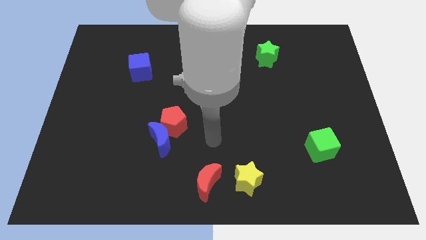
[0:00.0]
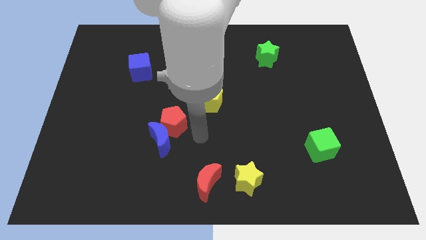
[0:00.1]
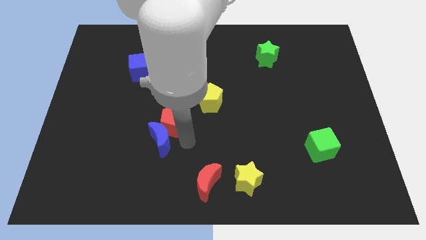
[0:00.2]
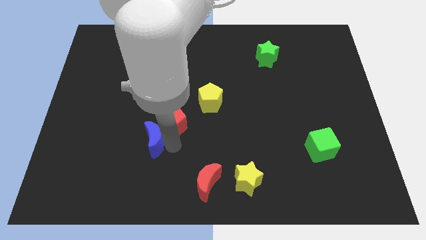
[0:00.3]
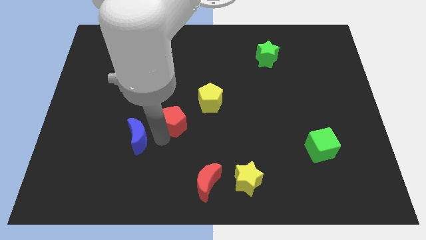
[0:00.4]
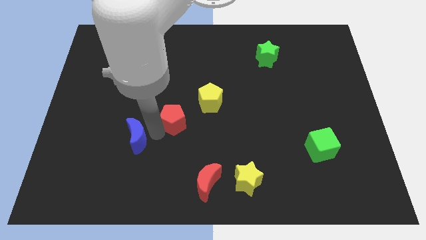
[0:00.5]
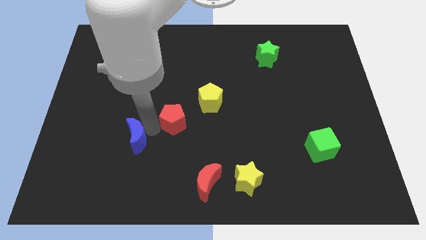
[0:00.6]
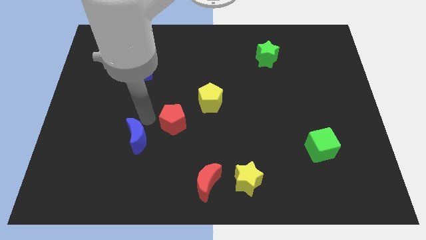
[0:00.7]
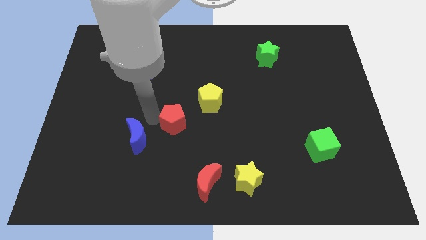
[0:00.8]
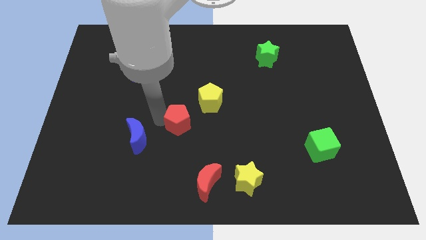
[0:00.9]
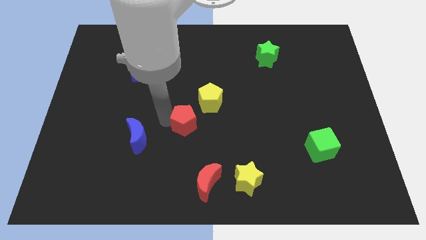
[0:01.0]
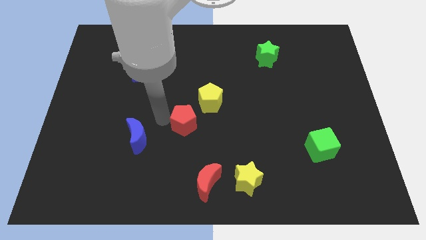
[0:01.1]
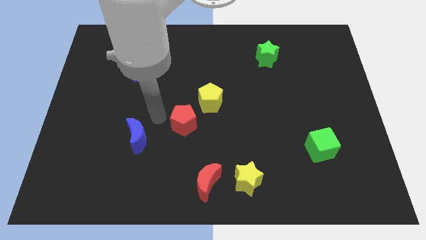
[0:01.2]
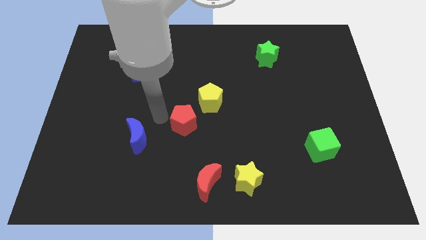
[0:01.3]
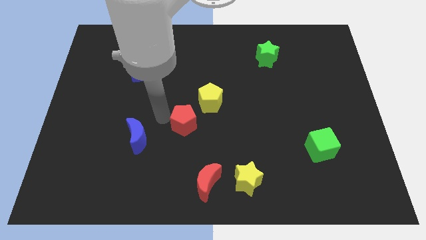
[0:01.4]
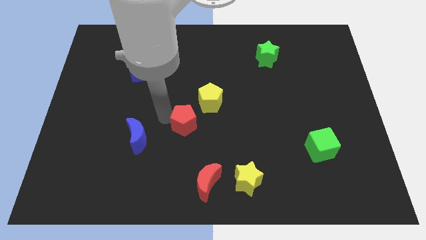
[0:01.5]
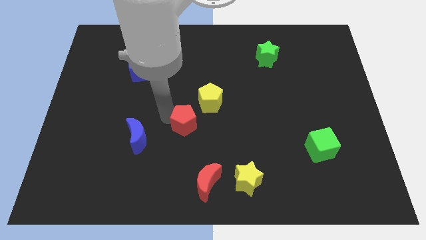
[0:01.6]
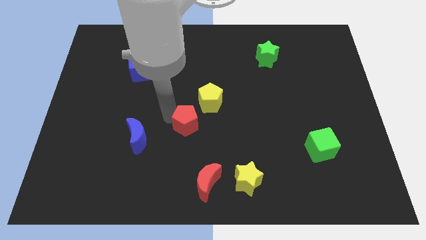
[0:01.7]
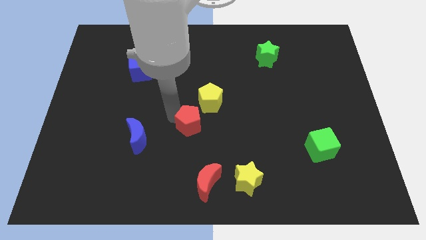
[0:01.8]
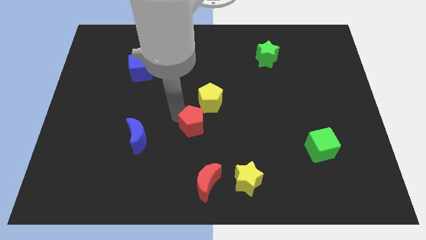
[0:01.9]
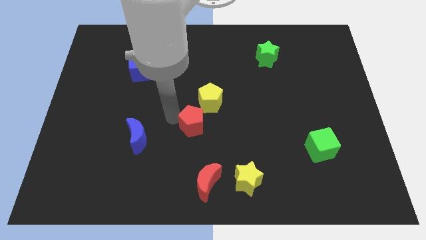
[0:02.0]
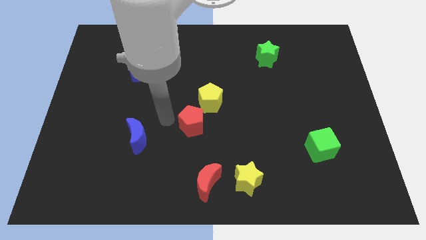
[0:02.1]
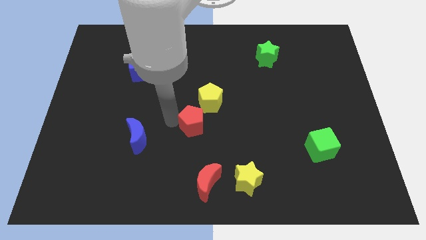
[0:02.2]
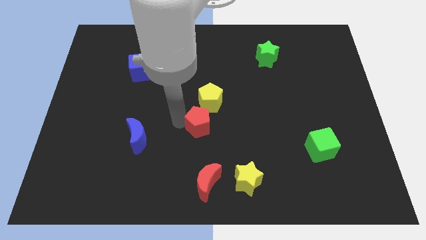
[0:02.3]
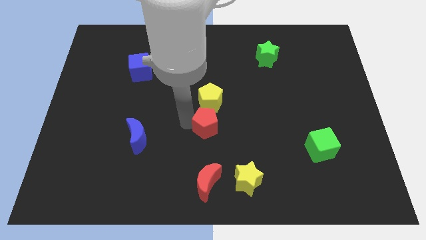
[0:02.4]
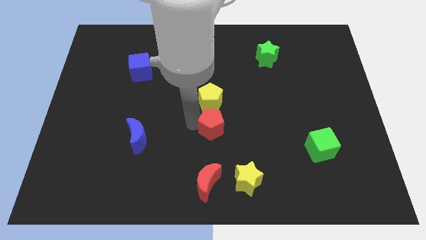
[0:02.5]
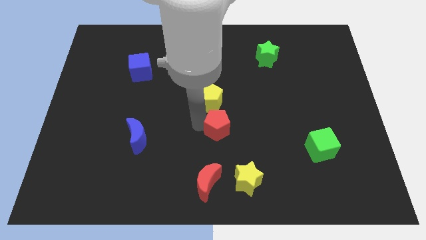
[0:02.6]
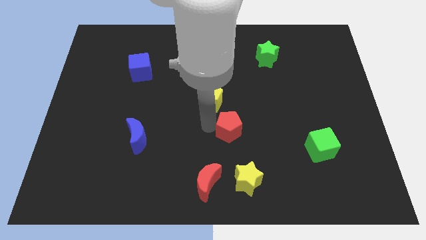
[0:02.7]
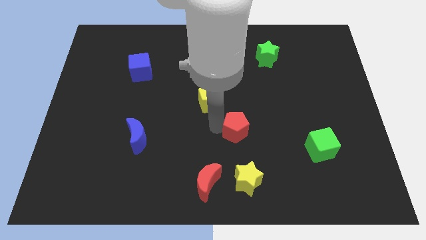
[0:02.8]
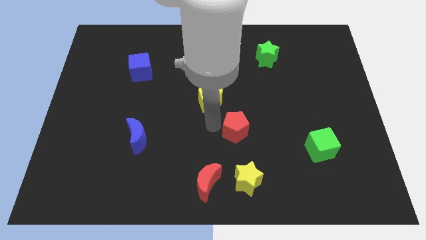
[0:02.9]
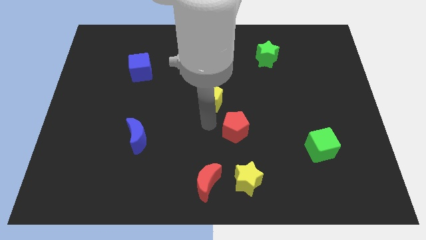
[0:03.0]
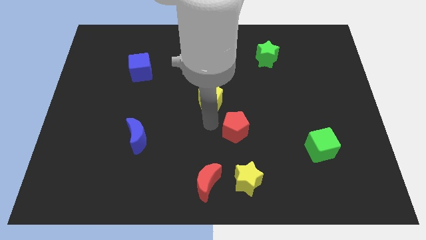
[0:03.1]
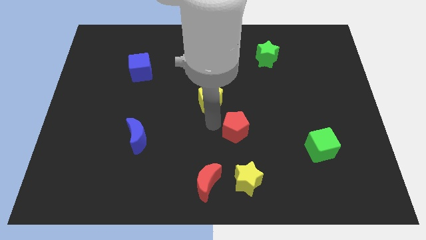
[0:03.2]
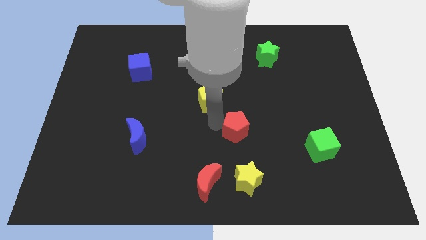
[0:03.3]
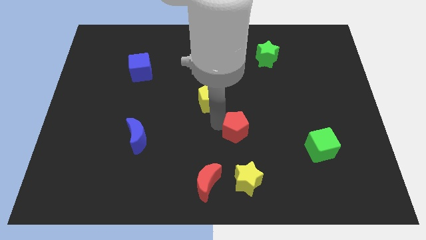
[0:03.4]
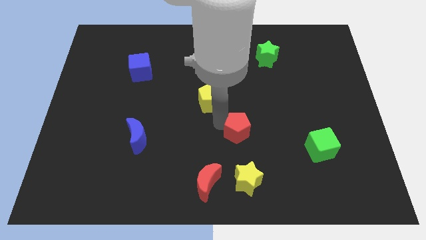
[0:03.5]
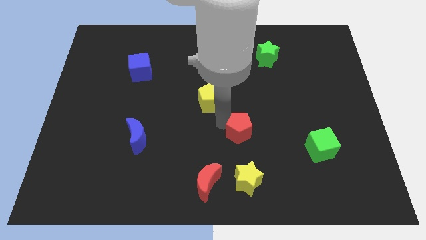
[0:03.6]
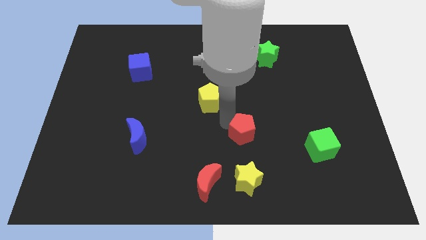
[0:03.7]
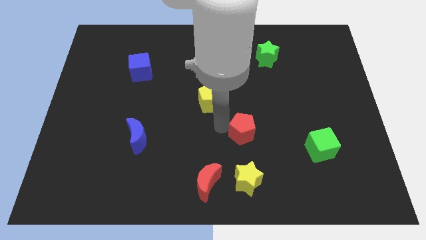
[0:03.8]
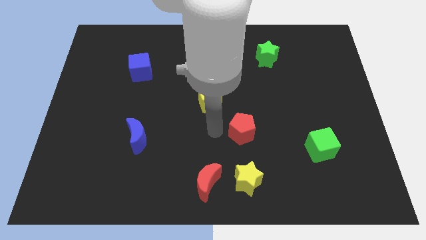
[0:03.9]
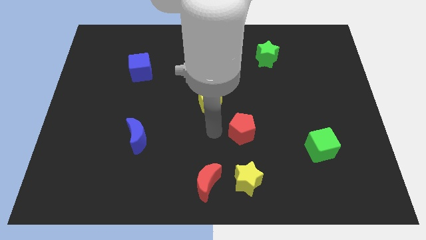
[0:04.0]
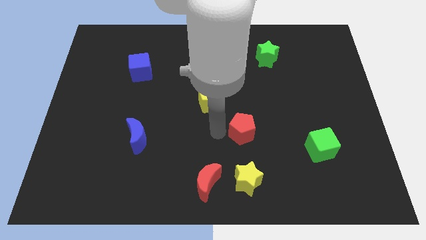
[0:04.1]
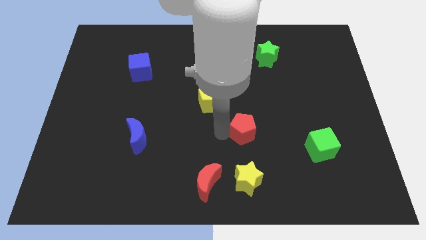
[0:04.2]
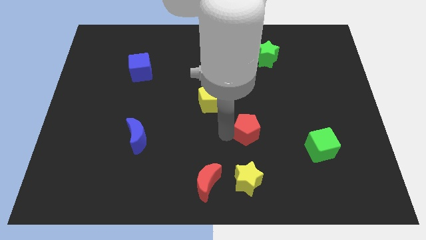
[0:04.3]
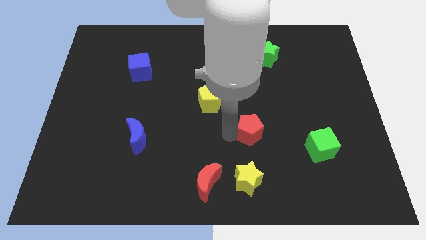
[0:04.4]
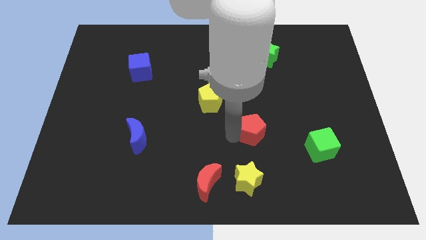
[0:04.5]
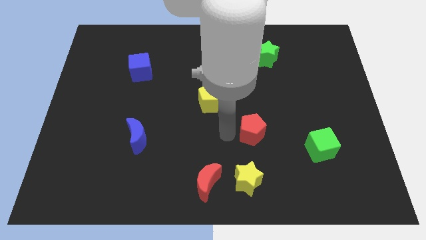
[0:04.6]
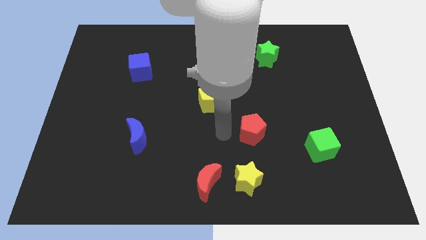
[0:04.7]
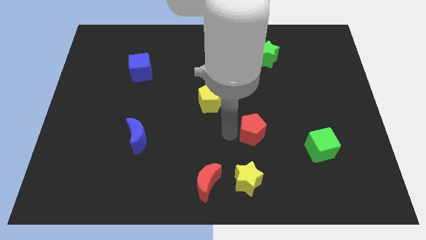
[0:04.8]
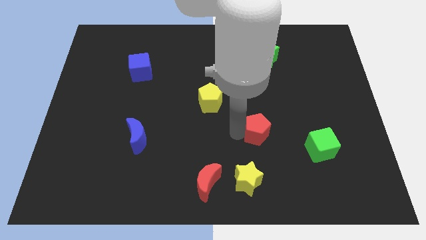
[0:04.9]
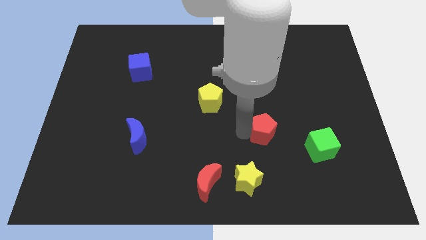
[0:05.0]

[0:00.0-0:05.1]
slide the red pentagon to the right

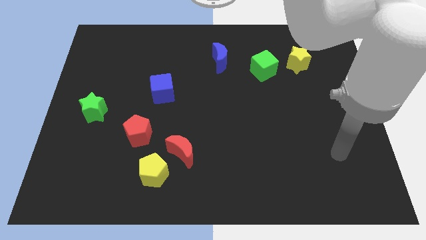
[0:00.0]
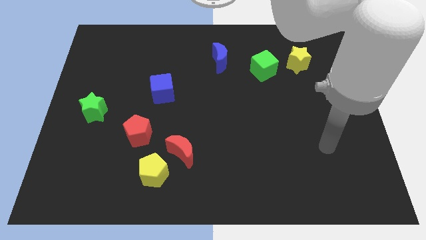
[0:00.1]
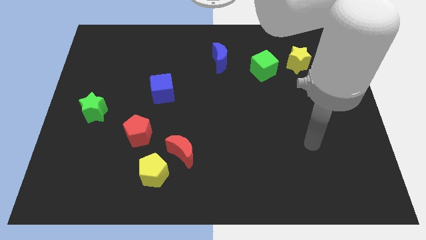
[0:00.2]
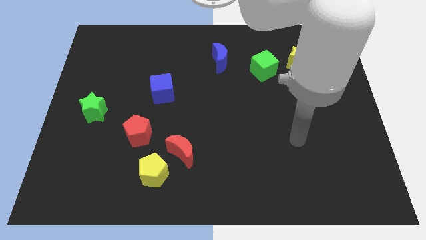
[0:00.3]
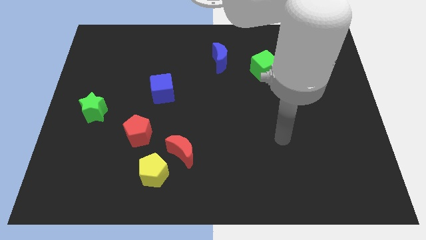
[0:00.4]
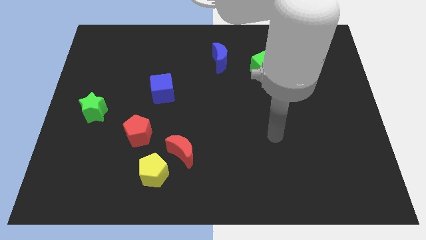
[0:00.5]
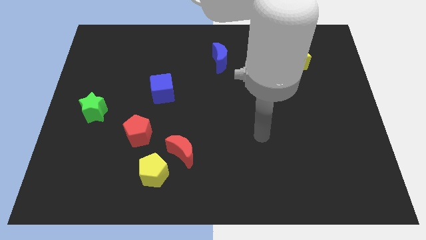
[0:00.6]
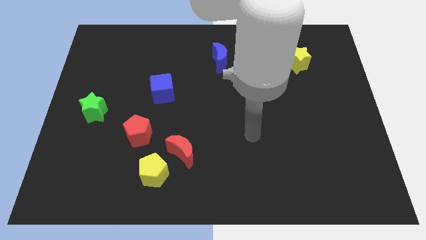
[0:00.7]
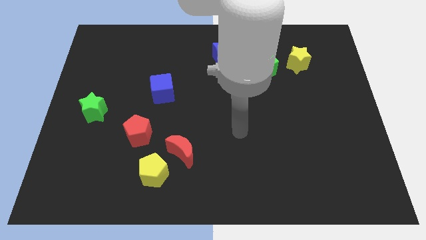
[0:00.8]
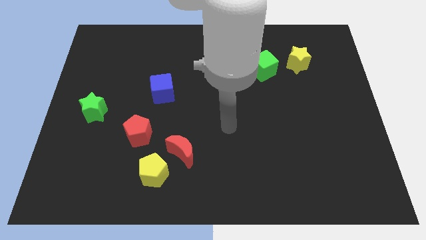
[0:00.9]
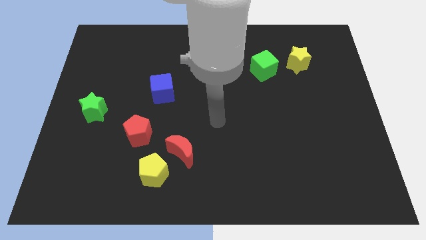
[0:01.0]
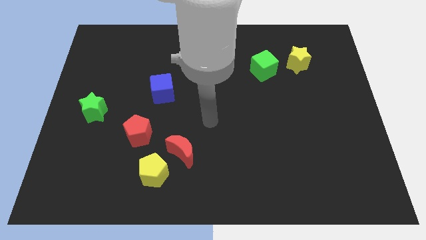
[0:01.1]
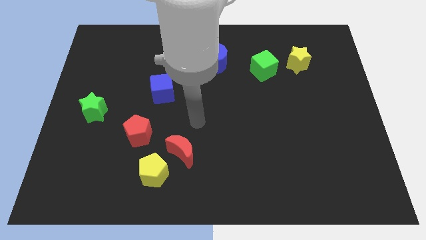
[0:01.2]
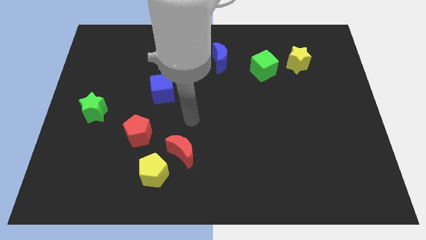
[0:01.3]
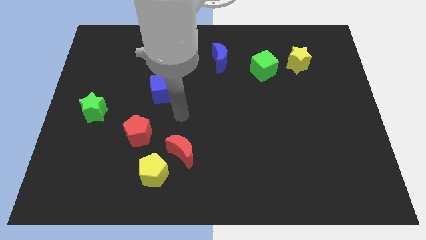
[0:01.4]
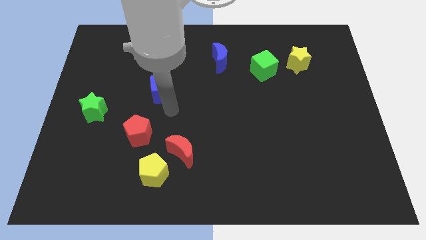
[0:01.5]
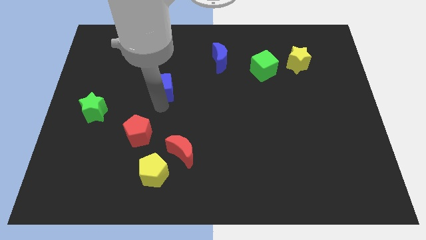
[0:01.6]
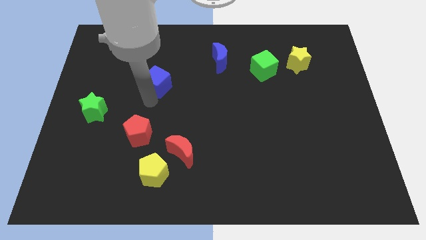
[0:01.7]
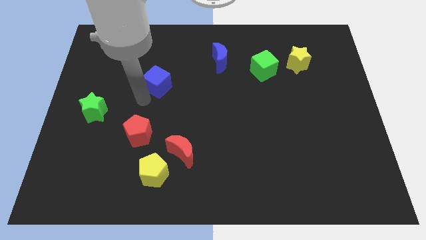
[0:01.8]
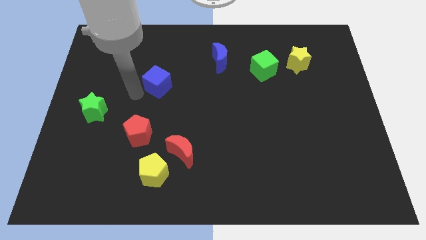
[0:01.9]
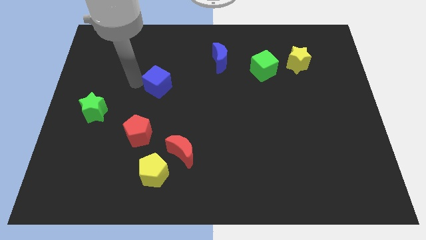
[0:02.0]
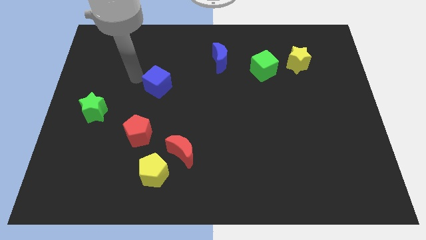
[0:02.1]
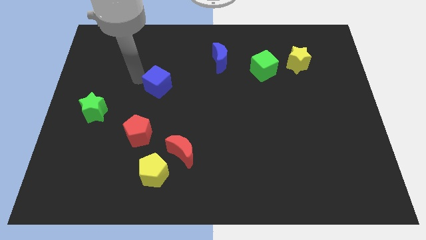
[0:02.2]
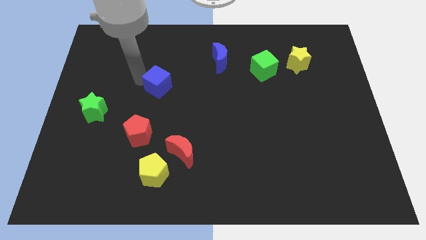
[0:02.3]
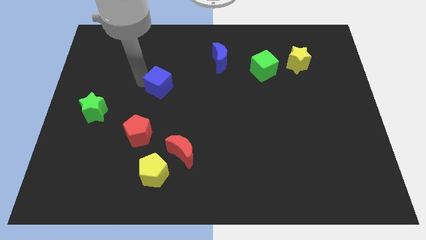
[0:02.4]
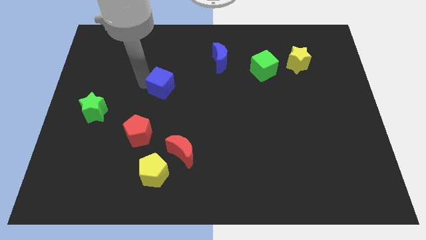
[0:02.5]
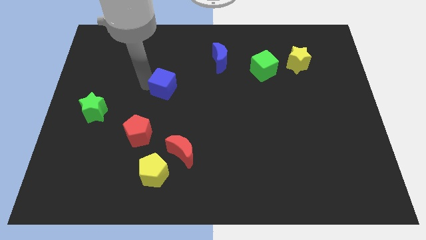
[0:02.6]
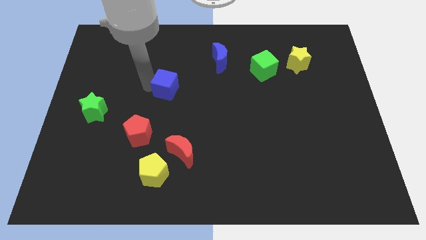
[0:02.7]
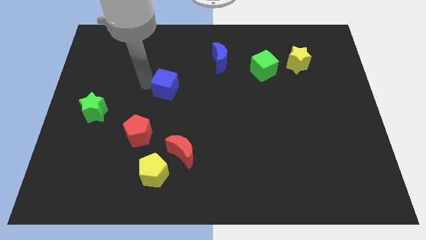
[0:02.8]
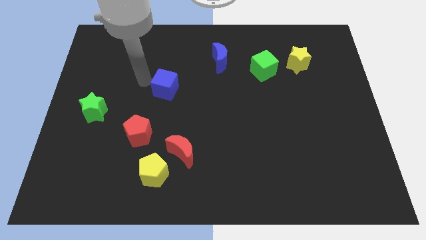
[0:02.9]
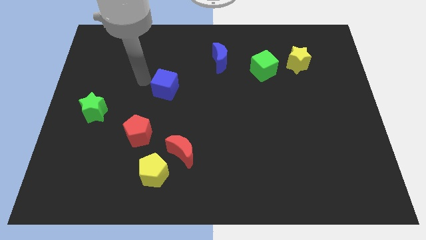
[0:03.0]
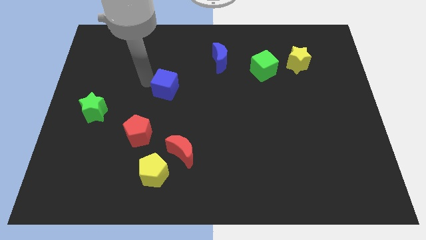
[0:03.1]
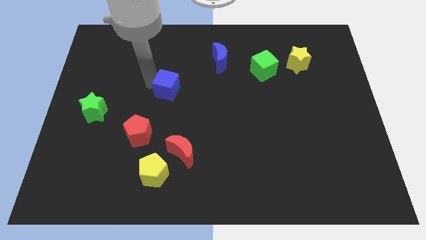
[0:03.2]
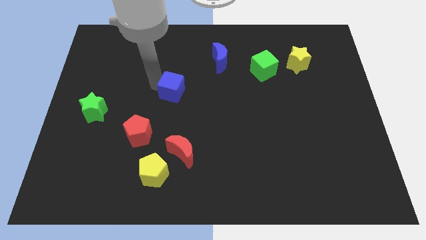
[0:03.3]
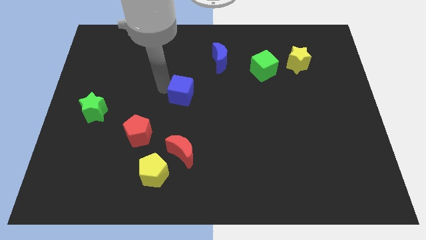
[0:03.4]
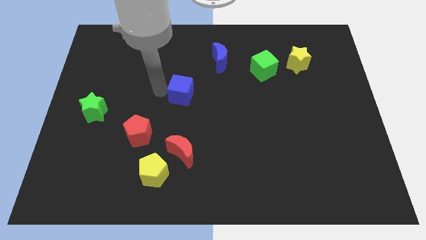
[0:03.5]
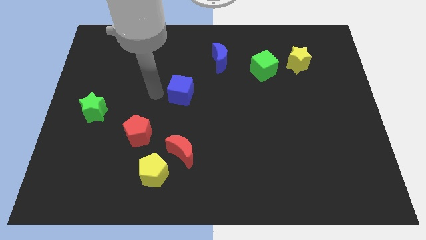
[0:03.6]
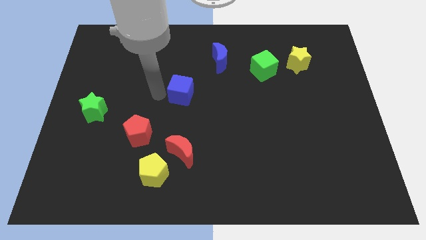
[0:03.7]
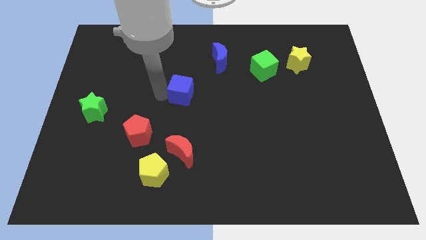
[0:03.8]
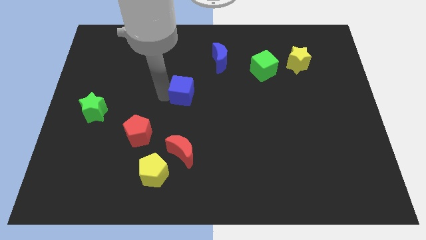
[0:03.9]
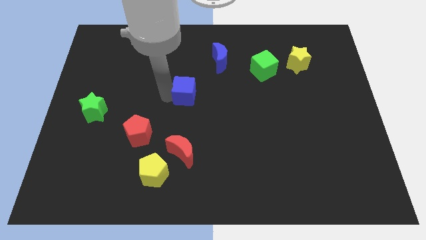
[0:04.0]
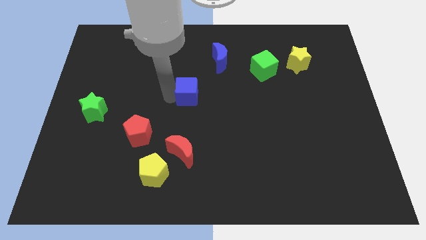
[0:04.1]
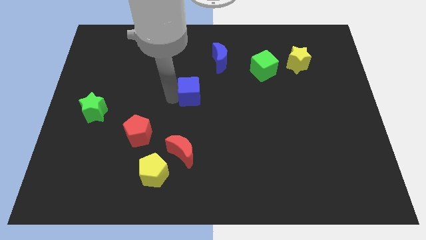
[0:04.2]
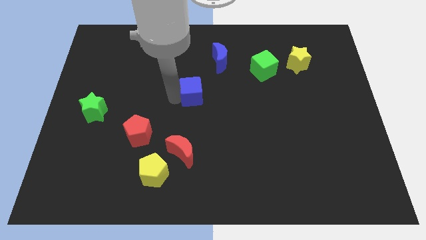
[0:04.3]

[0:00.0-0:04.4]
slightly move the blue cube to the right
